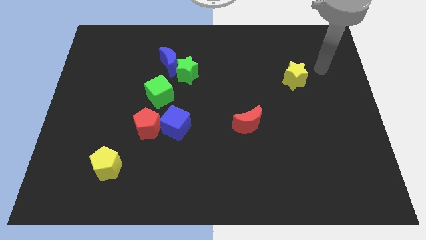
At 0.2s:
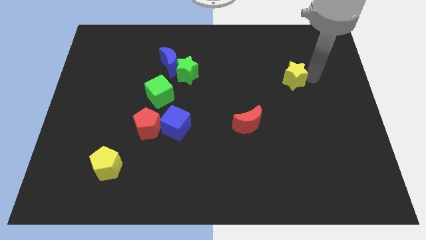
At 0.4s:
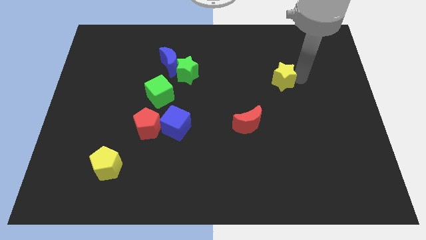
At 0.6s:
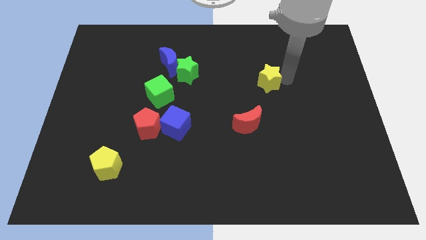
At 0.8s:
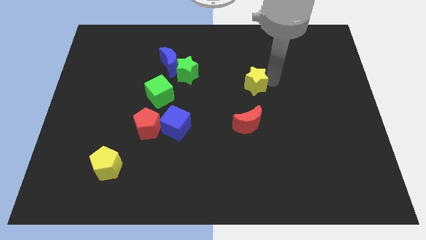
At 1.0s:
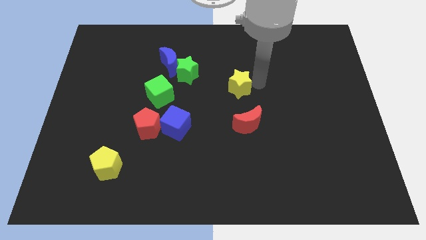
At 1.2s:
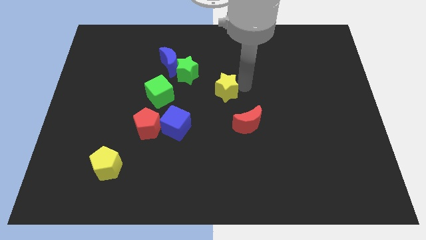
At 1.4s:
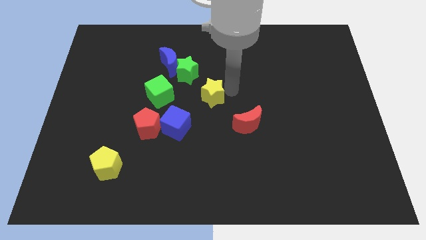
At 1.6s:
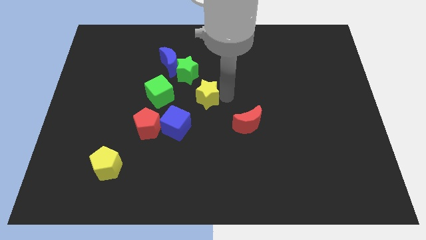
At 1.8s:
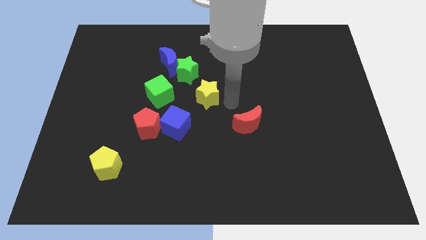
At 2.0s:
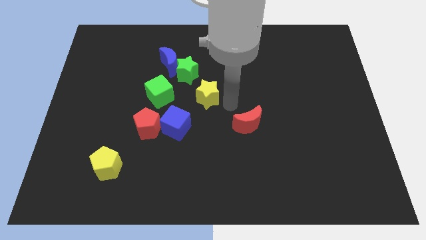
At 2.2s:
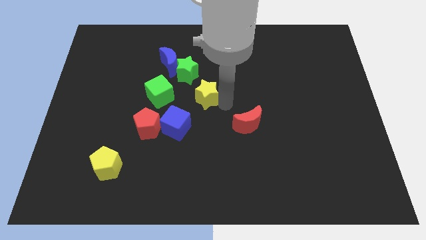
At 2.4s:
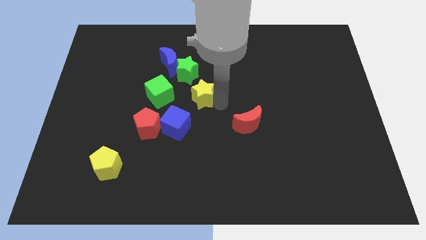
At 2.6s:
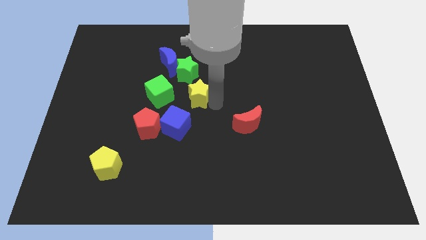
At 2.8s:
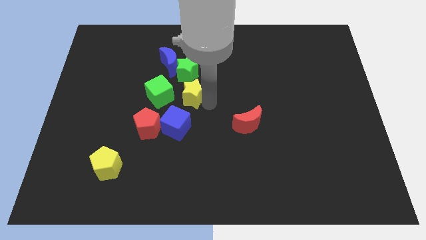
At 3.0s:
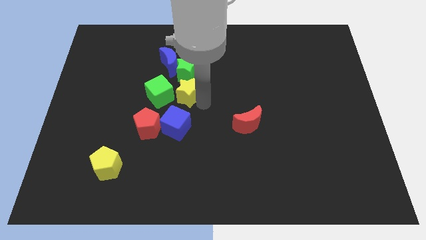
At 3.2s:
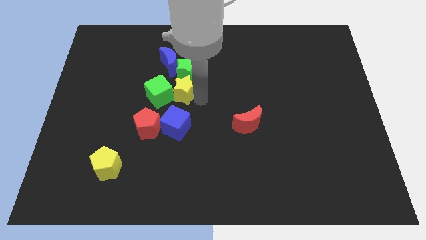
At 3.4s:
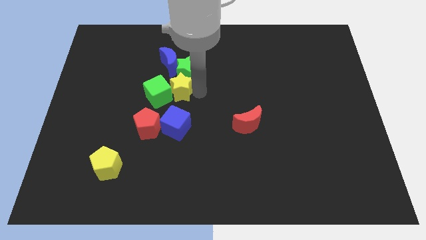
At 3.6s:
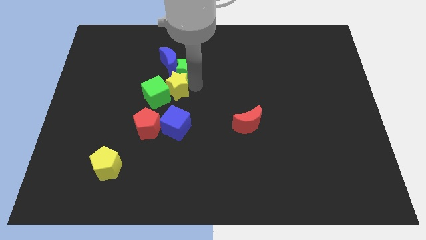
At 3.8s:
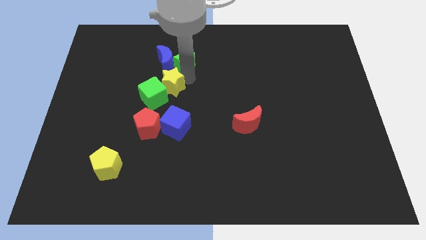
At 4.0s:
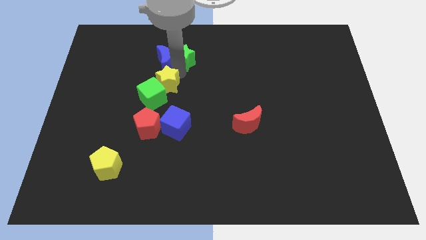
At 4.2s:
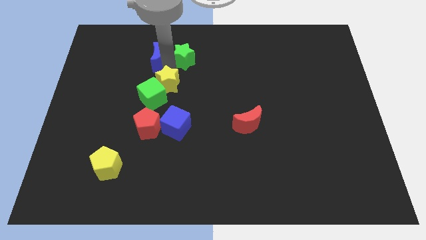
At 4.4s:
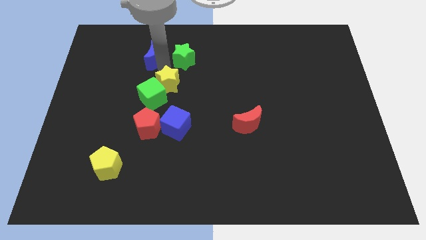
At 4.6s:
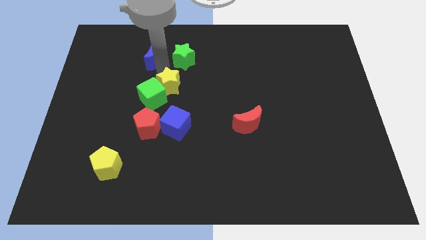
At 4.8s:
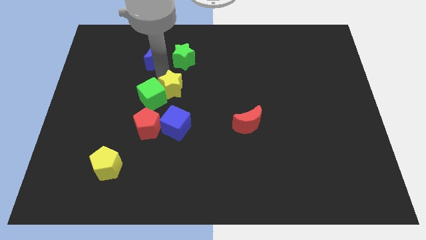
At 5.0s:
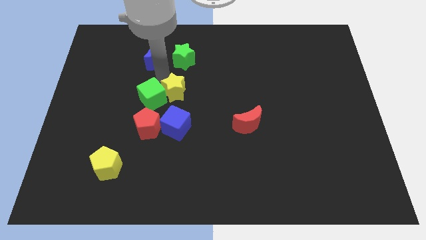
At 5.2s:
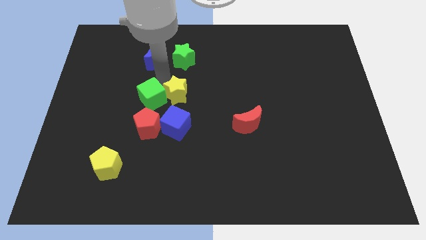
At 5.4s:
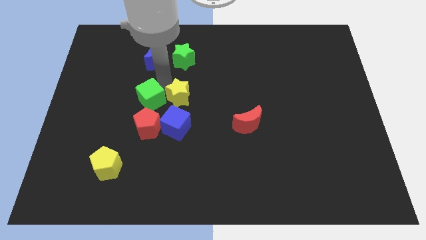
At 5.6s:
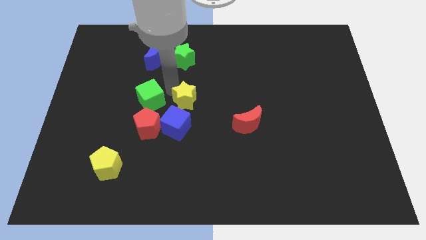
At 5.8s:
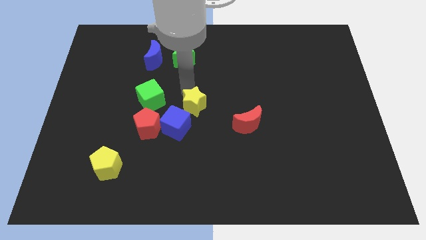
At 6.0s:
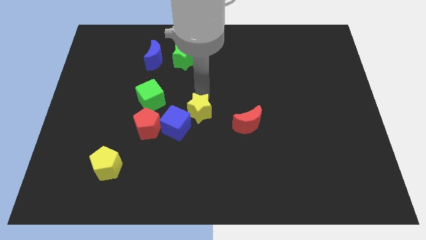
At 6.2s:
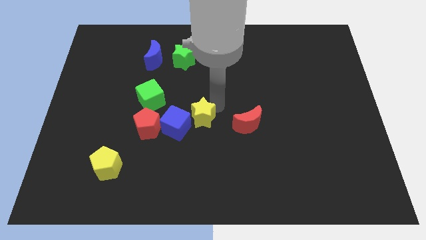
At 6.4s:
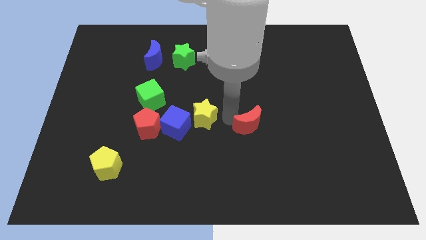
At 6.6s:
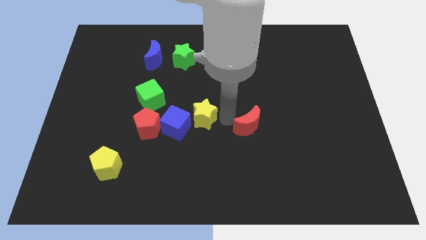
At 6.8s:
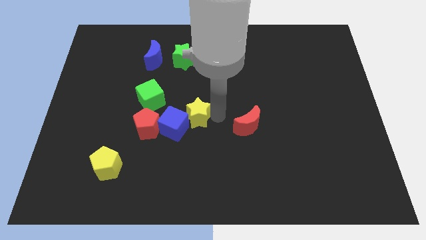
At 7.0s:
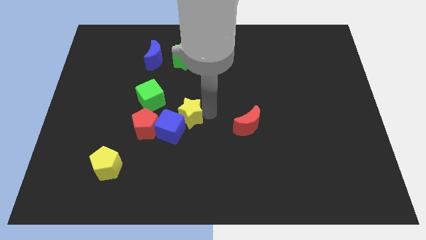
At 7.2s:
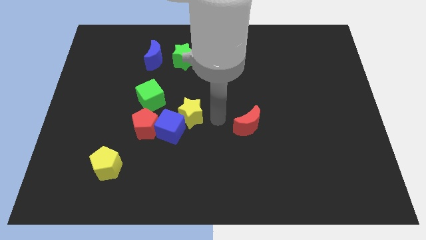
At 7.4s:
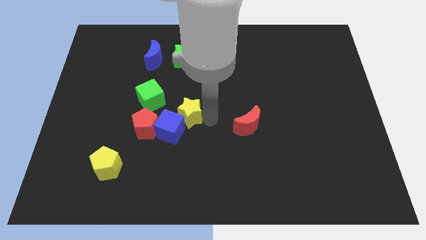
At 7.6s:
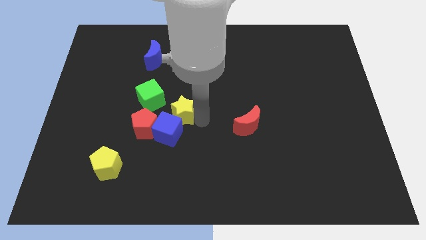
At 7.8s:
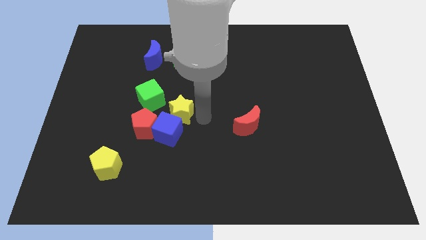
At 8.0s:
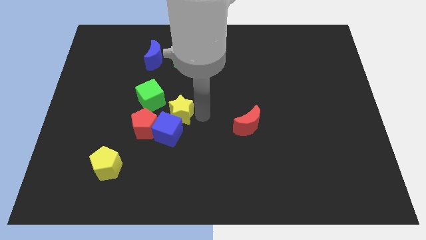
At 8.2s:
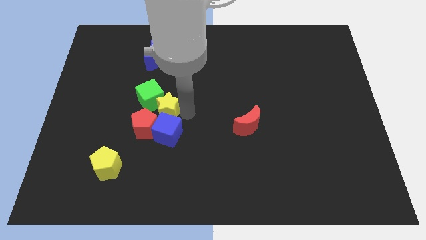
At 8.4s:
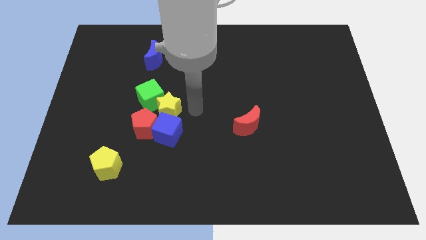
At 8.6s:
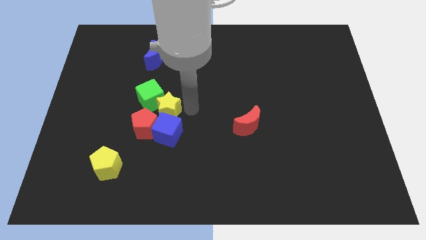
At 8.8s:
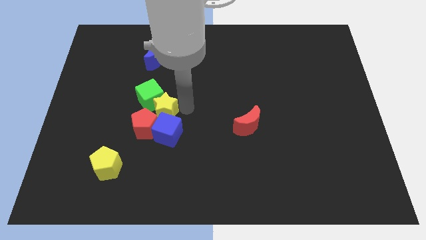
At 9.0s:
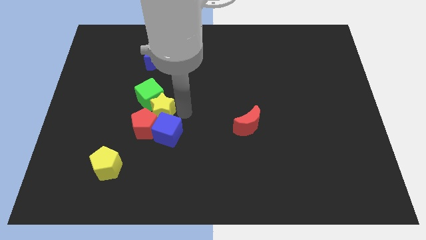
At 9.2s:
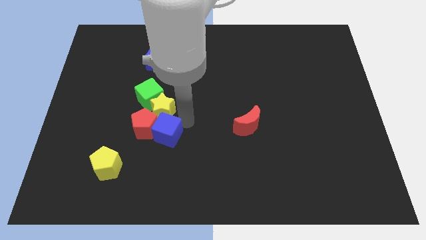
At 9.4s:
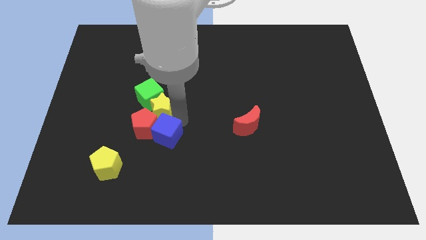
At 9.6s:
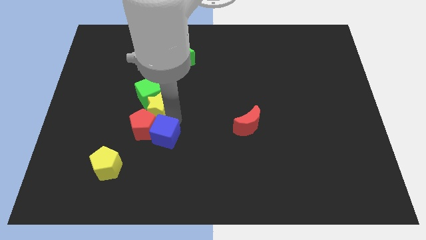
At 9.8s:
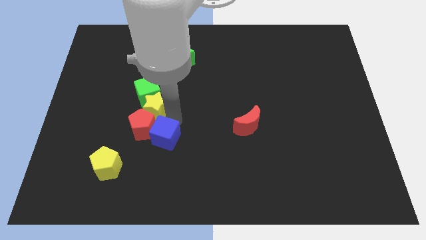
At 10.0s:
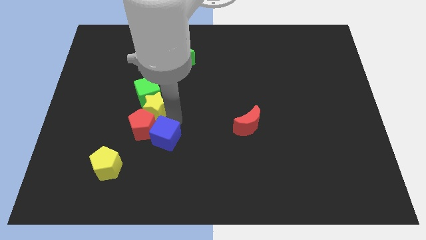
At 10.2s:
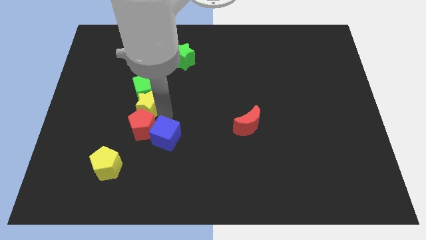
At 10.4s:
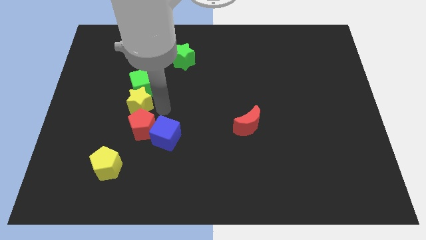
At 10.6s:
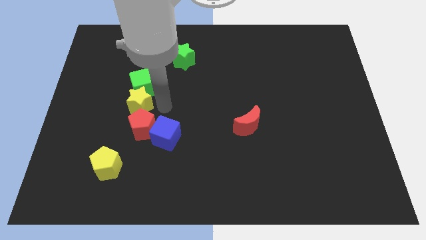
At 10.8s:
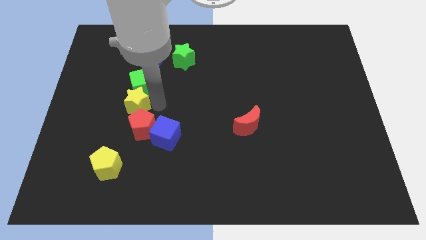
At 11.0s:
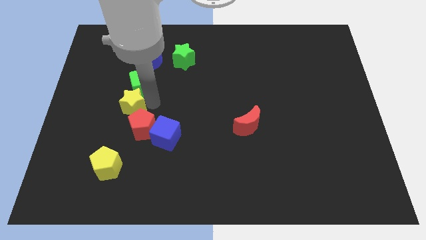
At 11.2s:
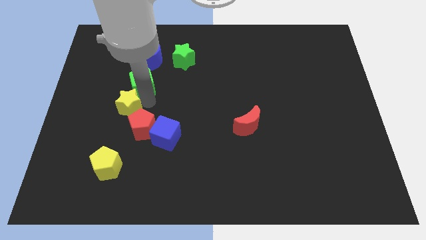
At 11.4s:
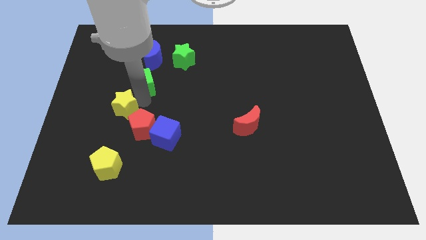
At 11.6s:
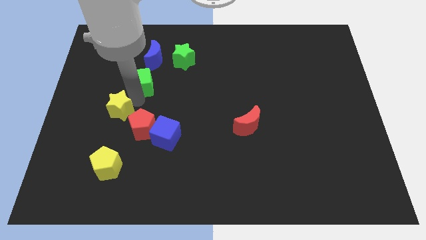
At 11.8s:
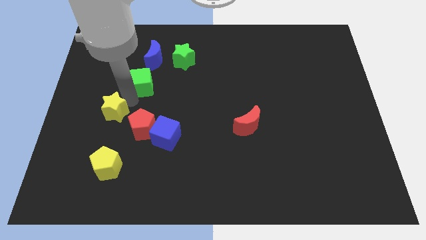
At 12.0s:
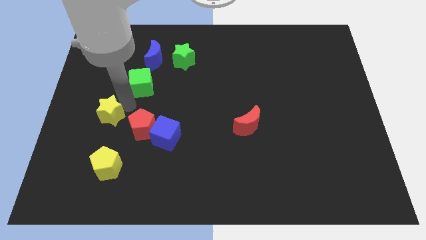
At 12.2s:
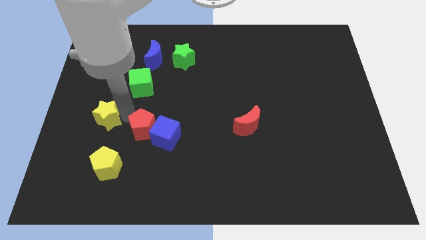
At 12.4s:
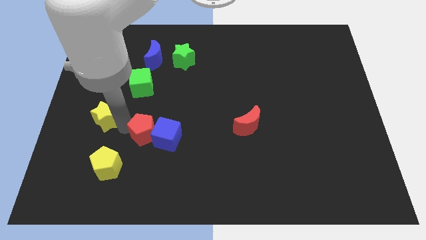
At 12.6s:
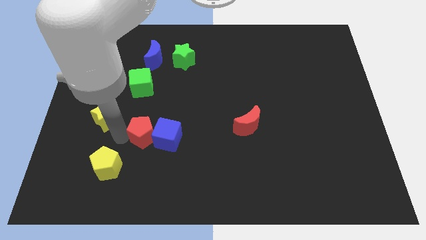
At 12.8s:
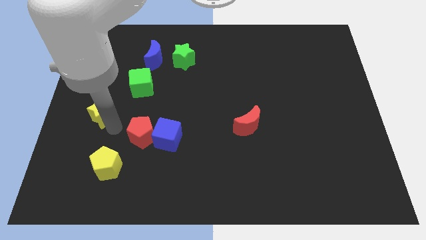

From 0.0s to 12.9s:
slide the yellow star to the center left

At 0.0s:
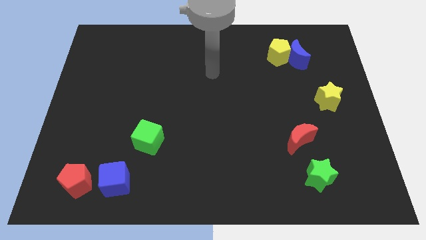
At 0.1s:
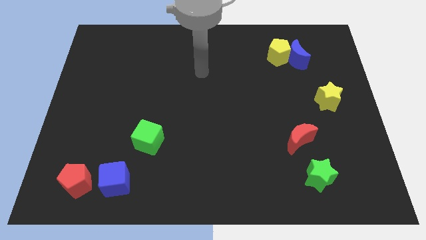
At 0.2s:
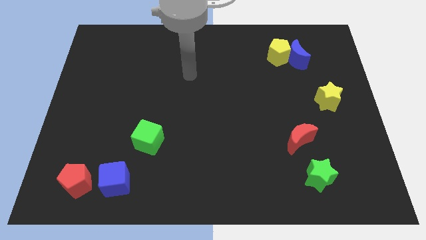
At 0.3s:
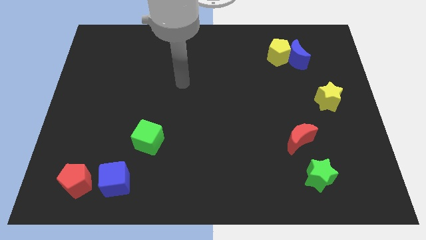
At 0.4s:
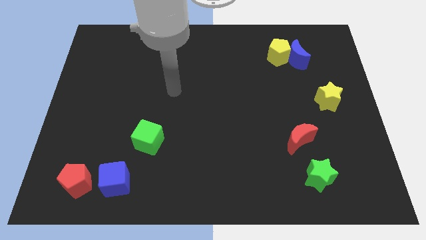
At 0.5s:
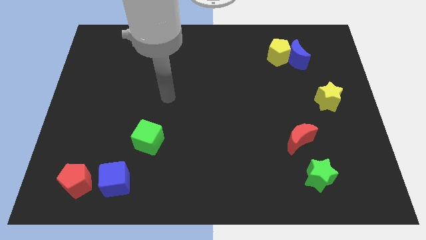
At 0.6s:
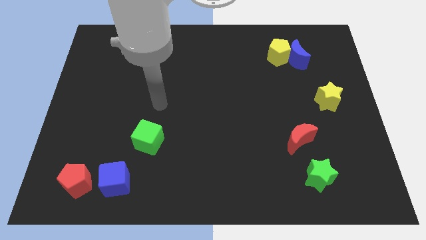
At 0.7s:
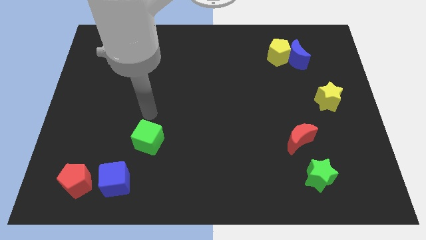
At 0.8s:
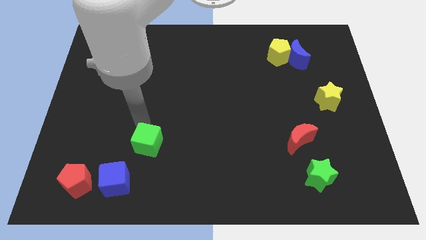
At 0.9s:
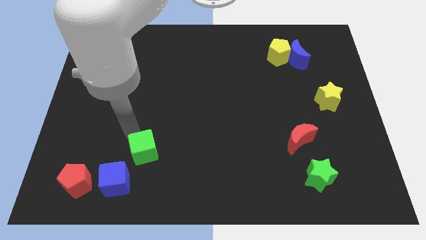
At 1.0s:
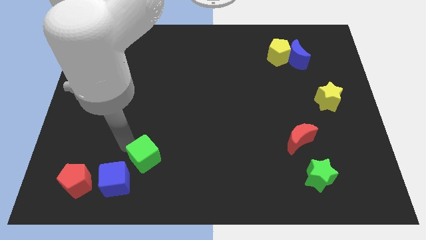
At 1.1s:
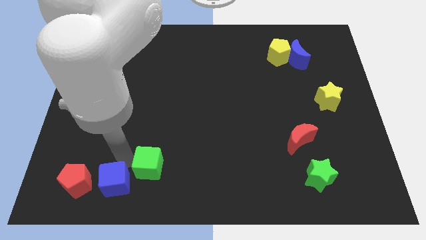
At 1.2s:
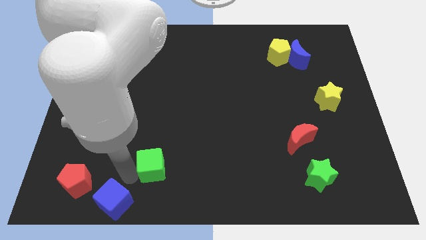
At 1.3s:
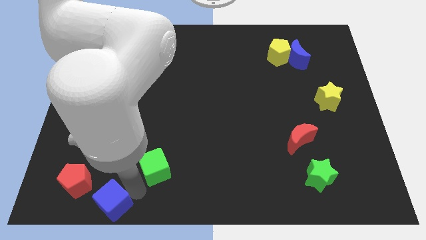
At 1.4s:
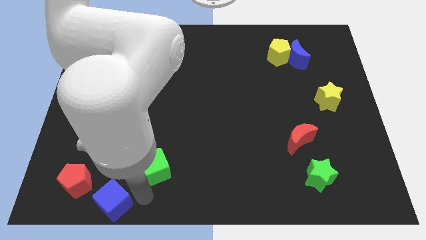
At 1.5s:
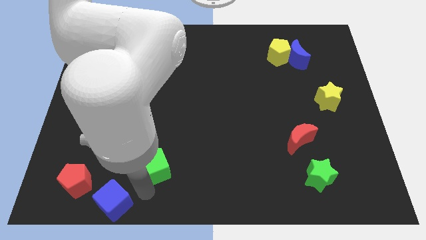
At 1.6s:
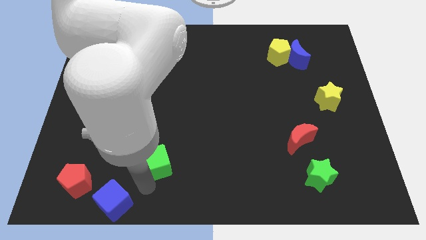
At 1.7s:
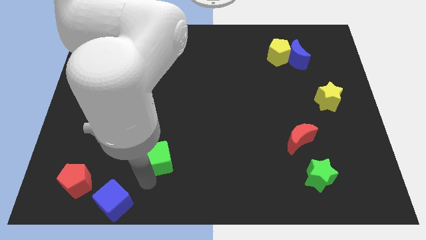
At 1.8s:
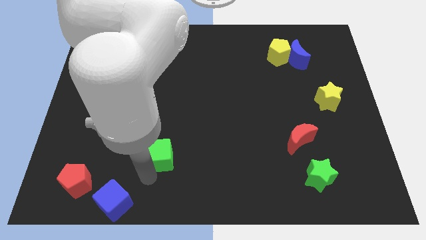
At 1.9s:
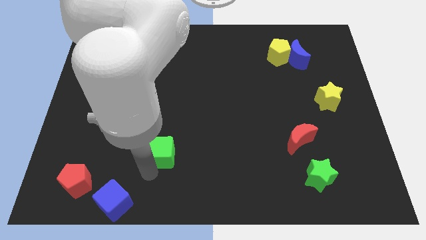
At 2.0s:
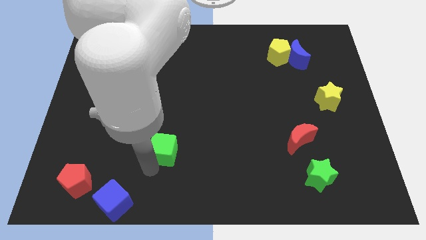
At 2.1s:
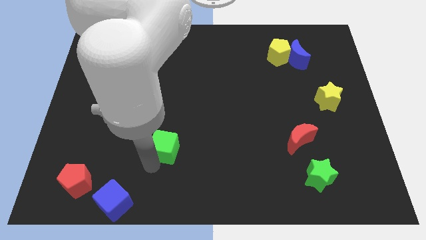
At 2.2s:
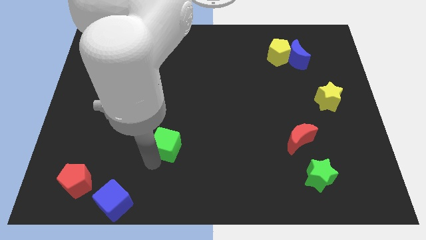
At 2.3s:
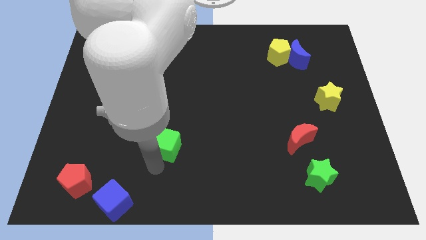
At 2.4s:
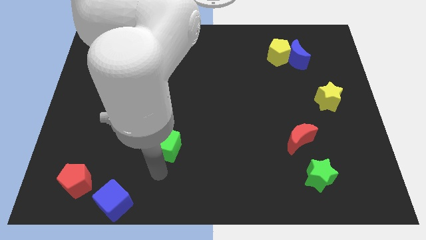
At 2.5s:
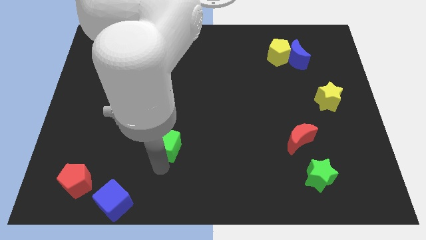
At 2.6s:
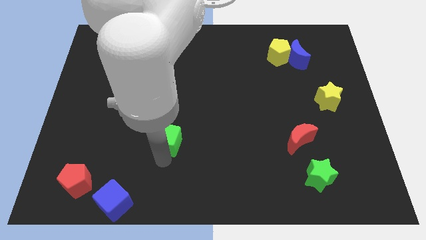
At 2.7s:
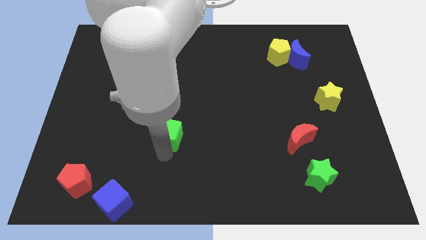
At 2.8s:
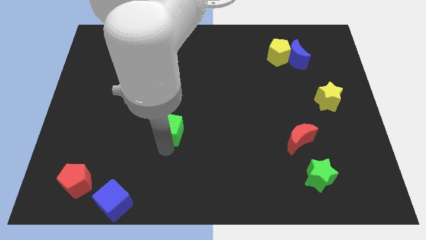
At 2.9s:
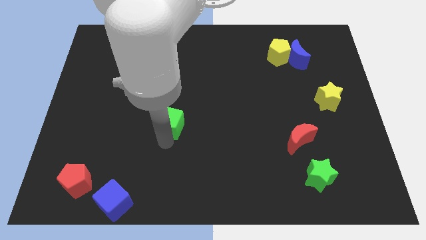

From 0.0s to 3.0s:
put the green cube to the center of the board
